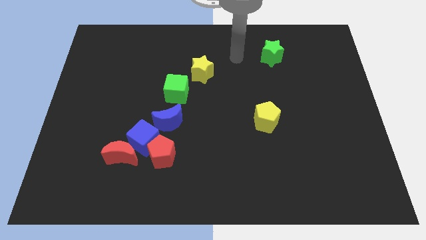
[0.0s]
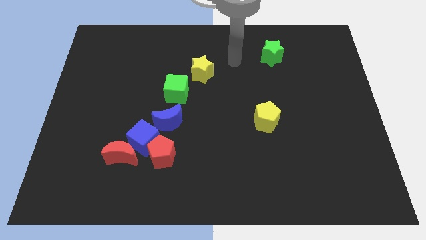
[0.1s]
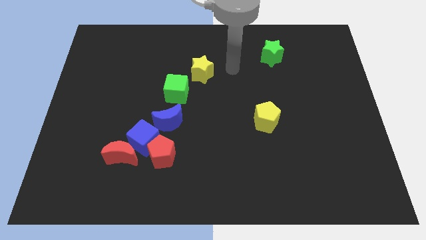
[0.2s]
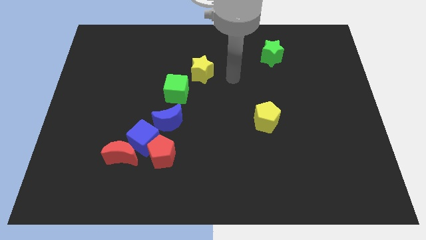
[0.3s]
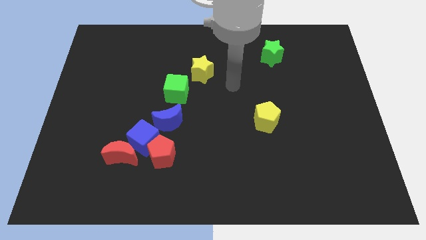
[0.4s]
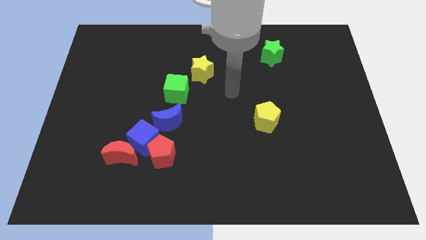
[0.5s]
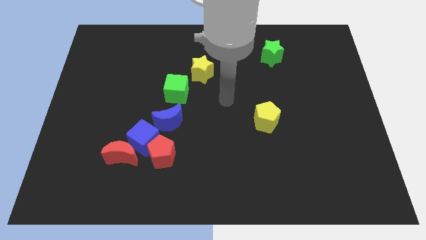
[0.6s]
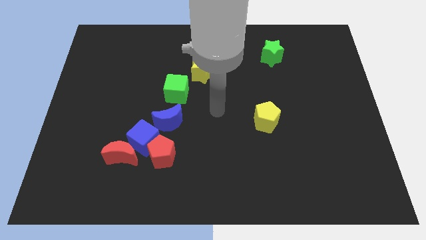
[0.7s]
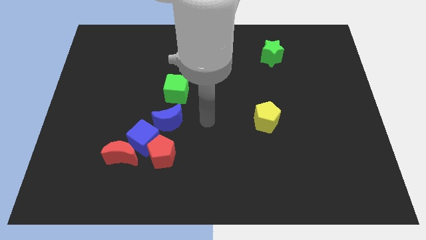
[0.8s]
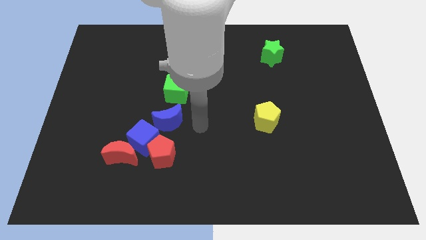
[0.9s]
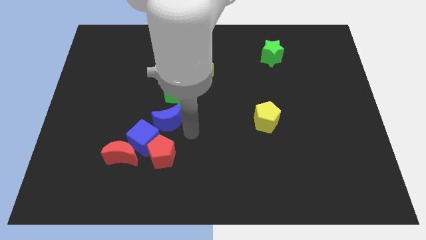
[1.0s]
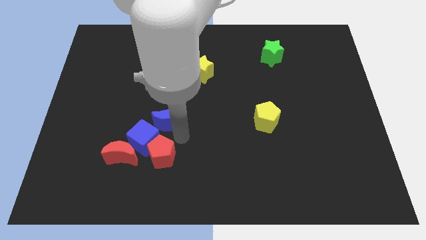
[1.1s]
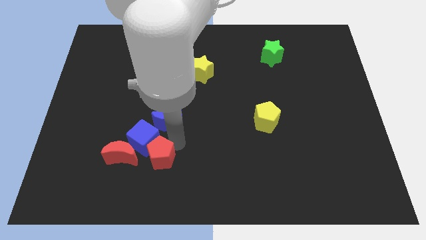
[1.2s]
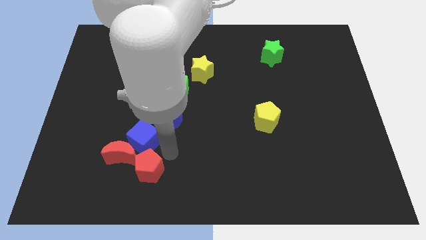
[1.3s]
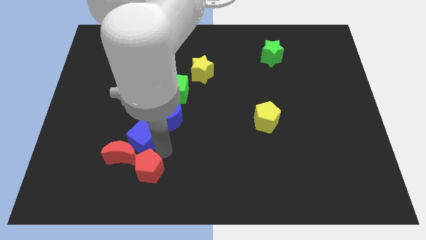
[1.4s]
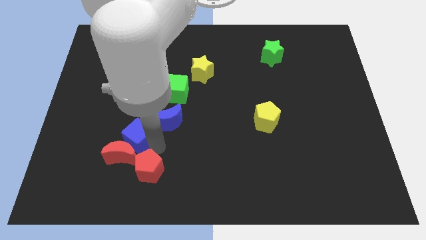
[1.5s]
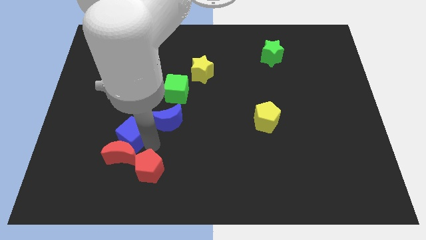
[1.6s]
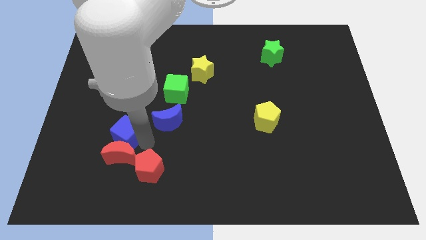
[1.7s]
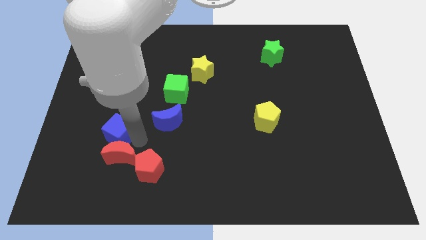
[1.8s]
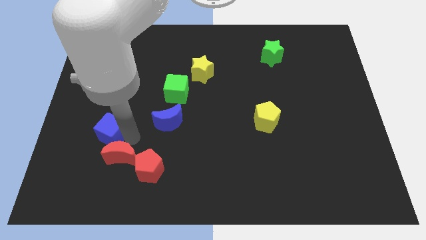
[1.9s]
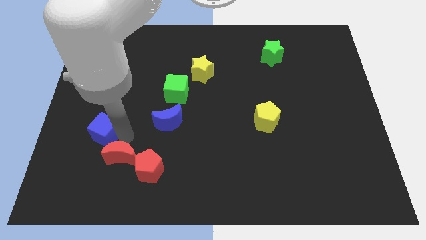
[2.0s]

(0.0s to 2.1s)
move the blue cube away from the group of blocks

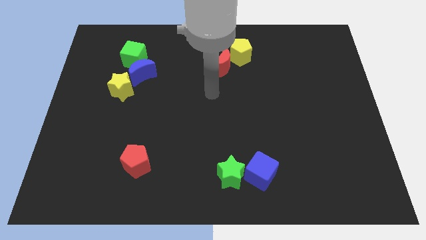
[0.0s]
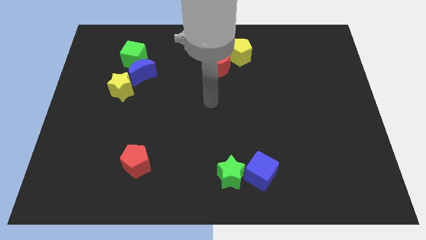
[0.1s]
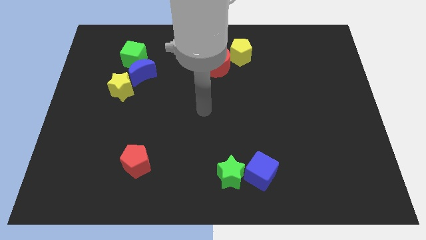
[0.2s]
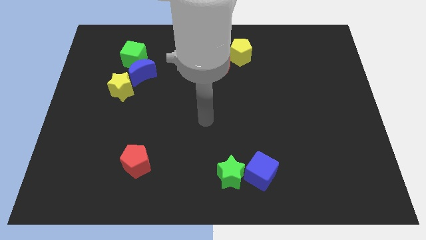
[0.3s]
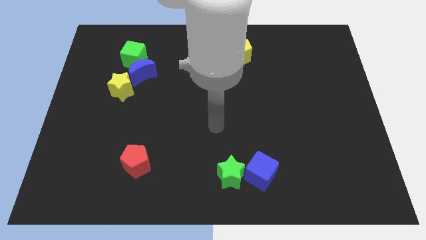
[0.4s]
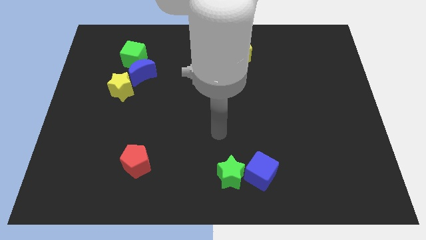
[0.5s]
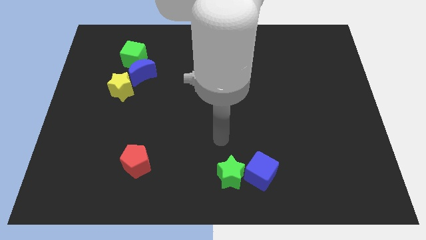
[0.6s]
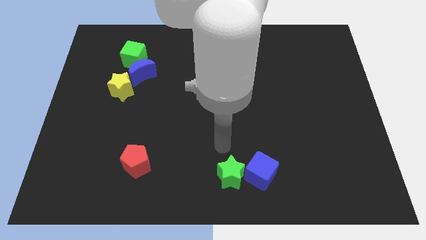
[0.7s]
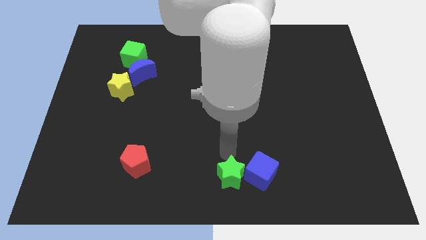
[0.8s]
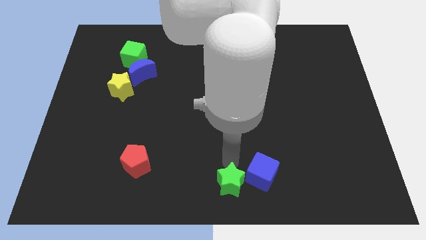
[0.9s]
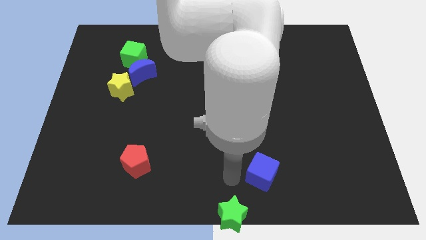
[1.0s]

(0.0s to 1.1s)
move the blue cube away from the green star

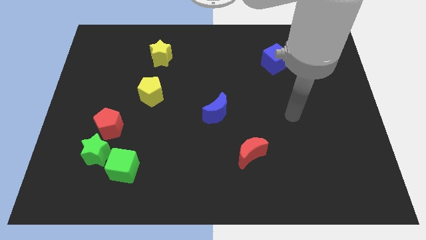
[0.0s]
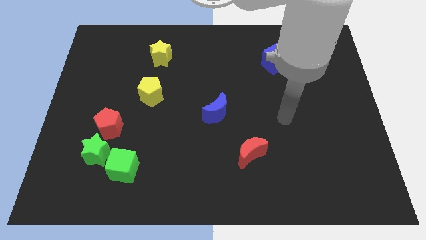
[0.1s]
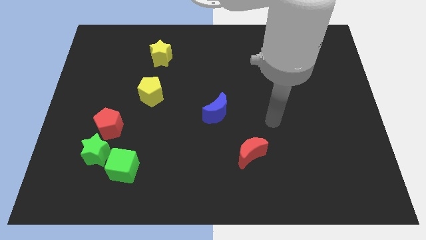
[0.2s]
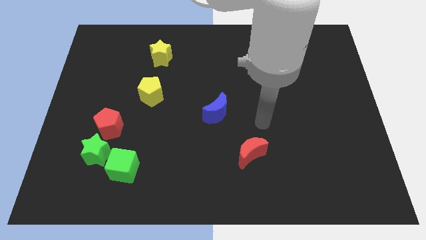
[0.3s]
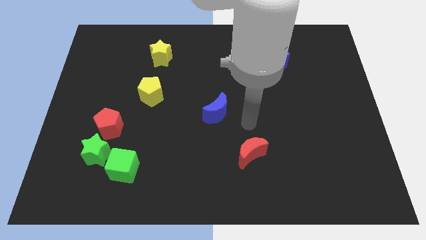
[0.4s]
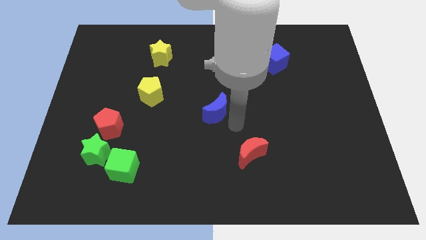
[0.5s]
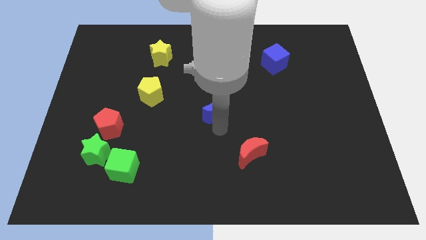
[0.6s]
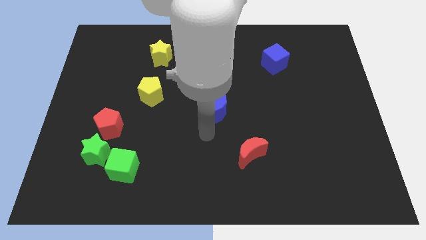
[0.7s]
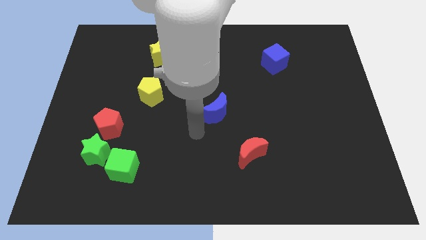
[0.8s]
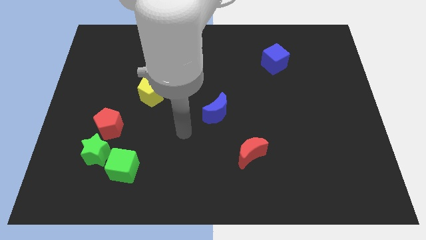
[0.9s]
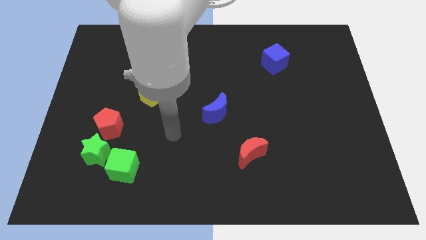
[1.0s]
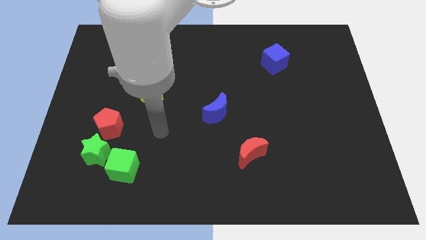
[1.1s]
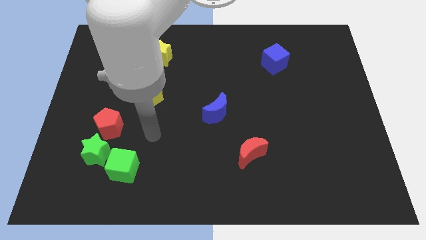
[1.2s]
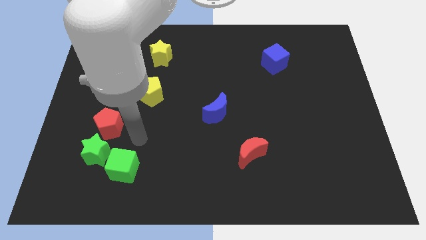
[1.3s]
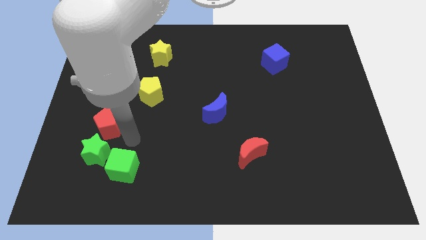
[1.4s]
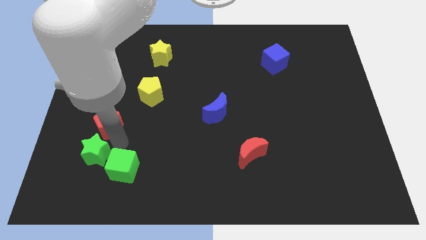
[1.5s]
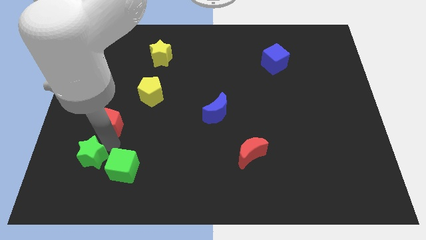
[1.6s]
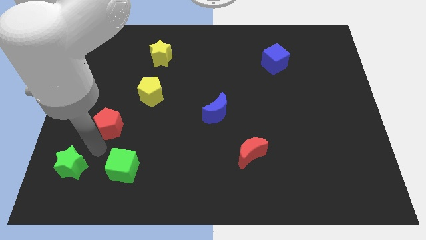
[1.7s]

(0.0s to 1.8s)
pull the red pentagon apart from the green star

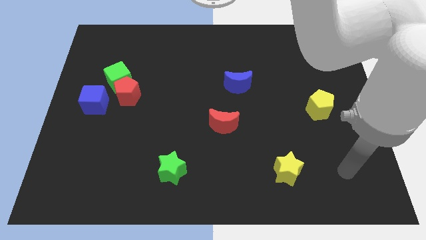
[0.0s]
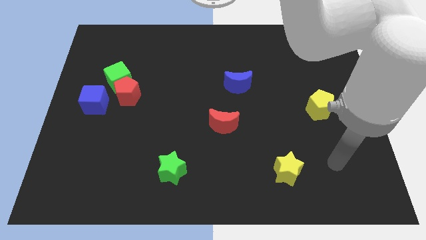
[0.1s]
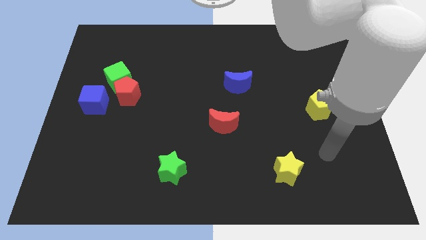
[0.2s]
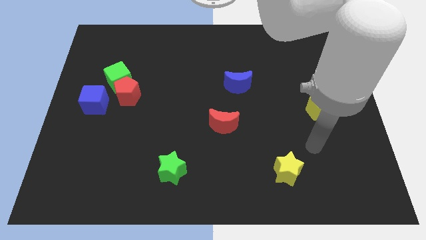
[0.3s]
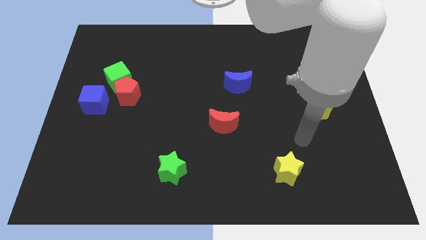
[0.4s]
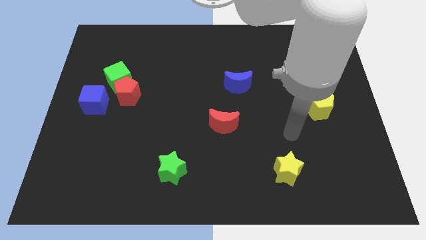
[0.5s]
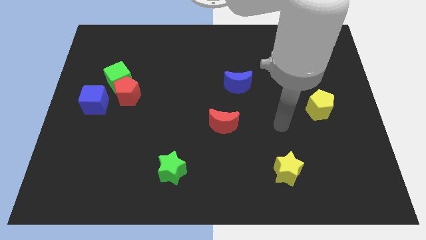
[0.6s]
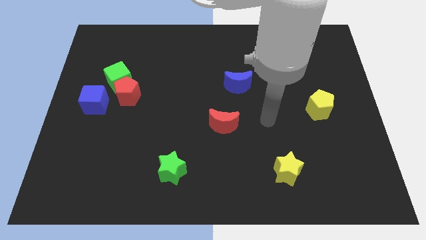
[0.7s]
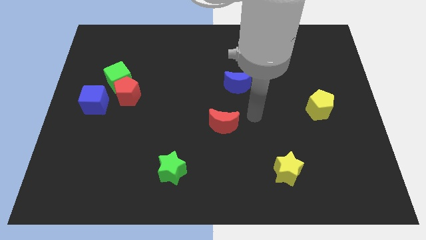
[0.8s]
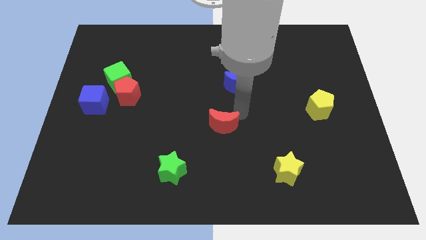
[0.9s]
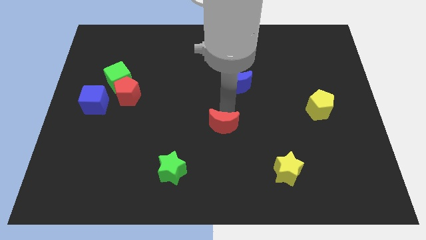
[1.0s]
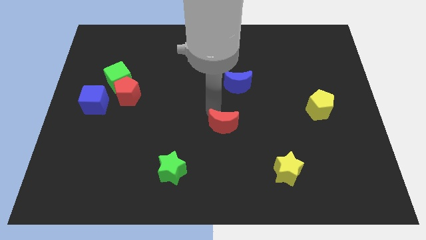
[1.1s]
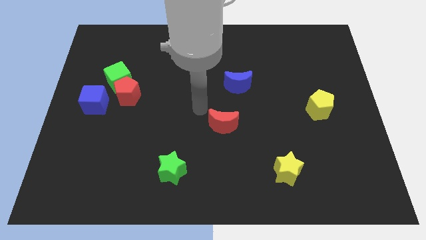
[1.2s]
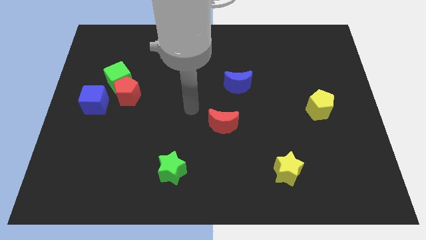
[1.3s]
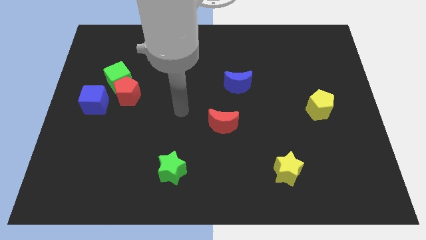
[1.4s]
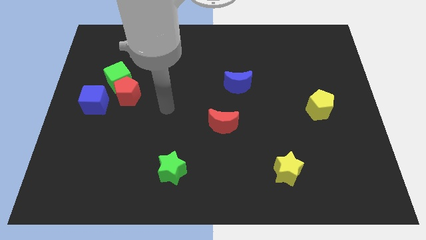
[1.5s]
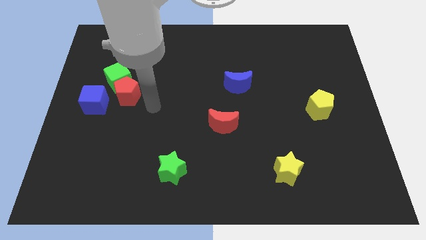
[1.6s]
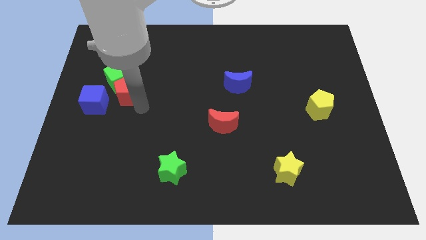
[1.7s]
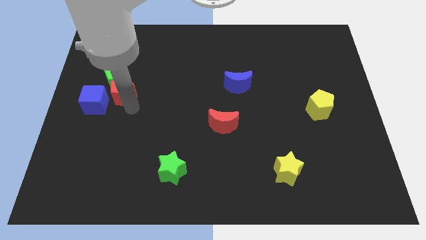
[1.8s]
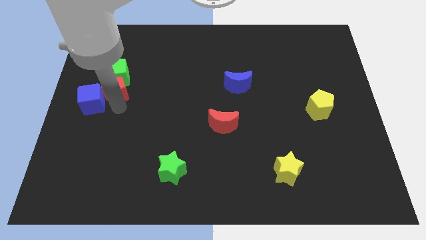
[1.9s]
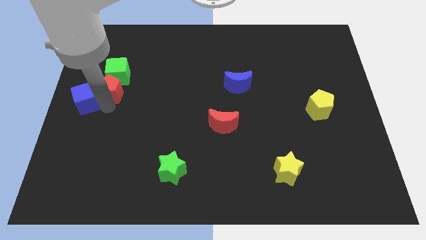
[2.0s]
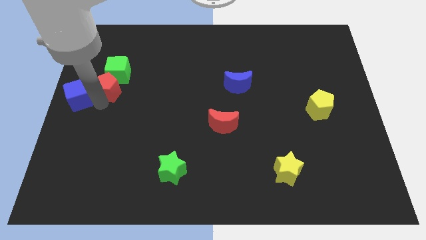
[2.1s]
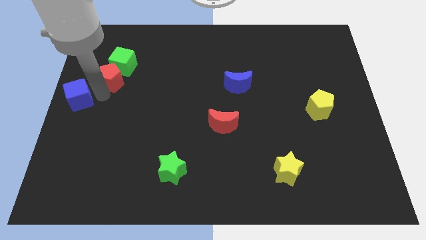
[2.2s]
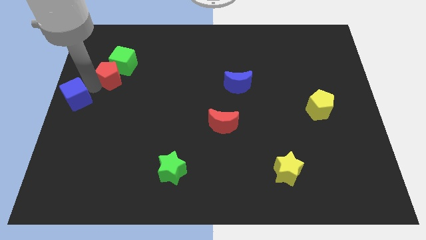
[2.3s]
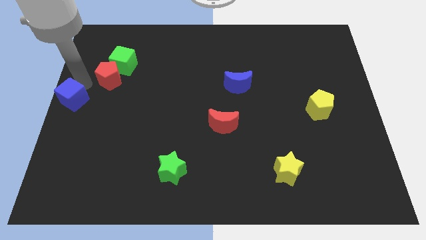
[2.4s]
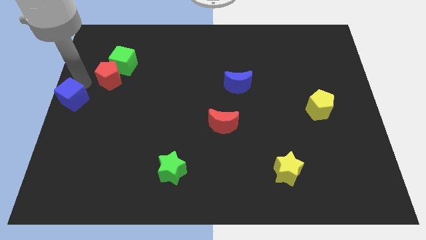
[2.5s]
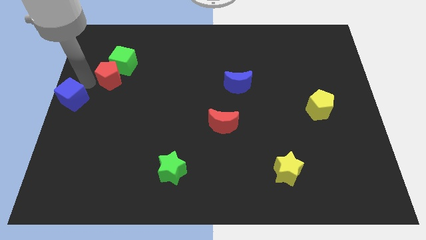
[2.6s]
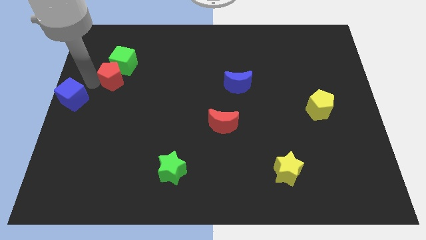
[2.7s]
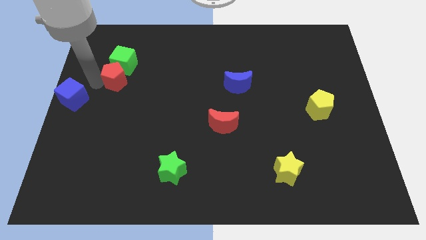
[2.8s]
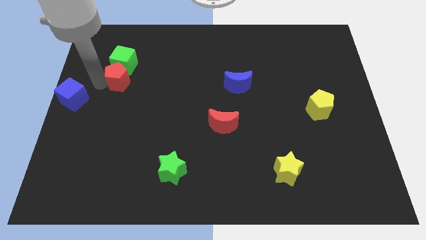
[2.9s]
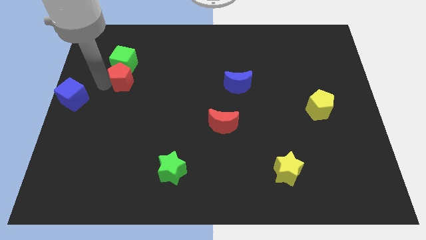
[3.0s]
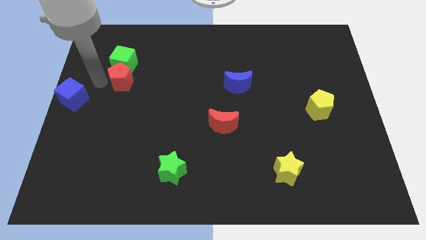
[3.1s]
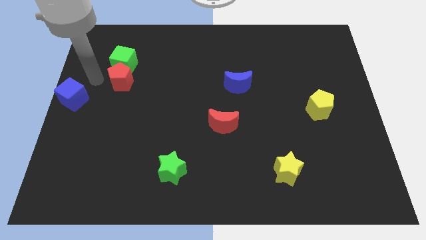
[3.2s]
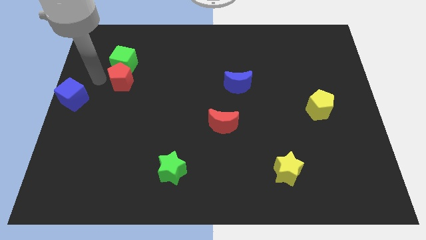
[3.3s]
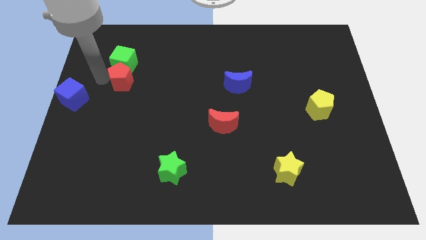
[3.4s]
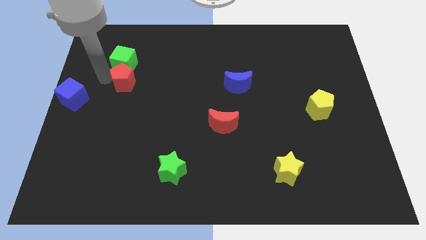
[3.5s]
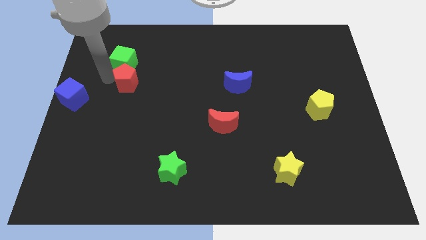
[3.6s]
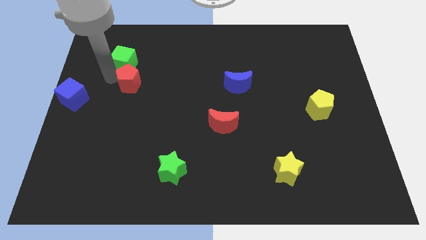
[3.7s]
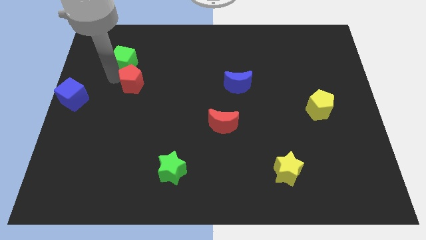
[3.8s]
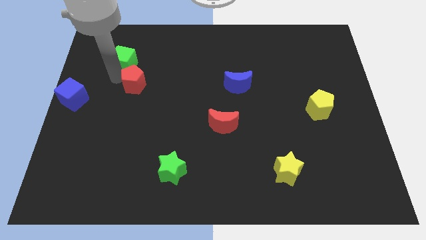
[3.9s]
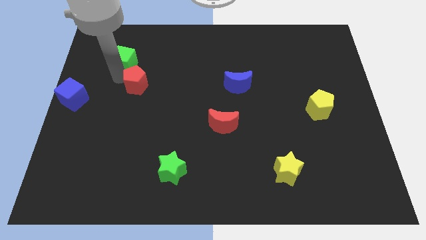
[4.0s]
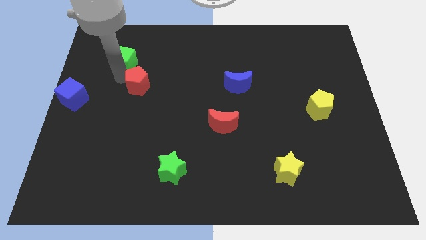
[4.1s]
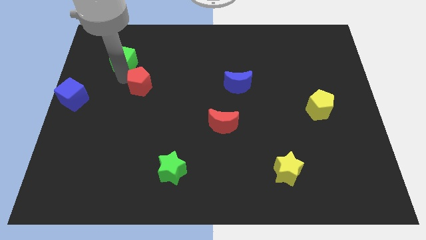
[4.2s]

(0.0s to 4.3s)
separate the red pentagon from the green cube and blue cube
